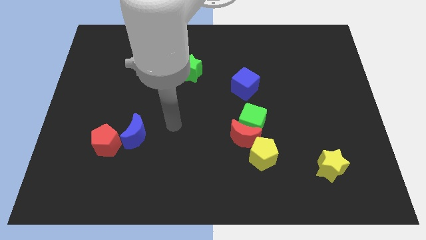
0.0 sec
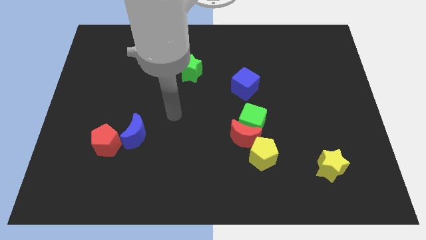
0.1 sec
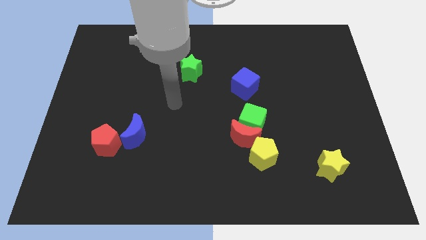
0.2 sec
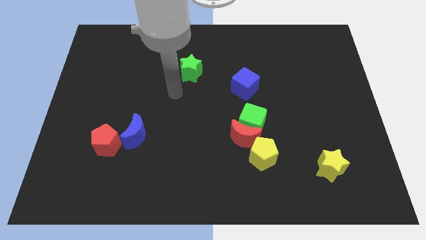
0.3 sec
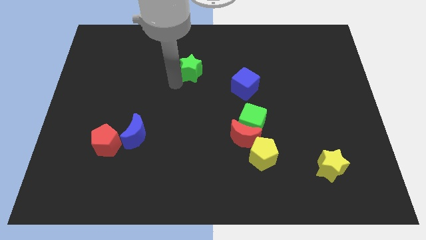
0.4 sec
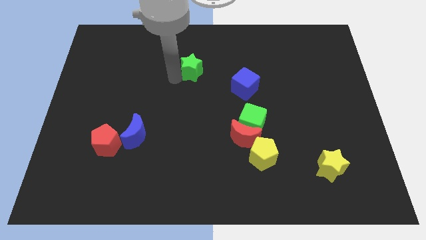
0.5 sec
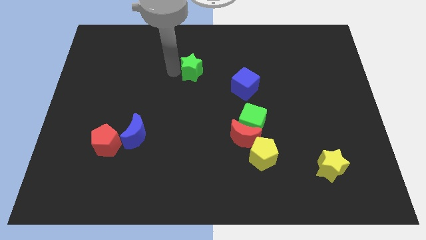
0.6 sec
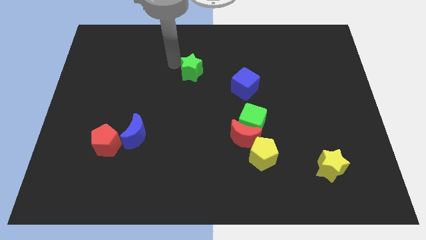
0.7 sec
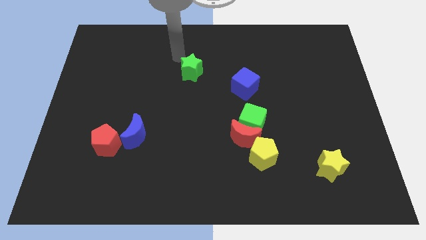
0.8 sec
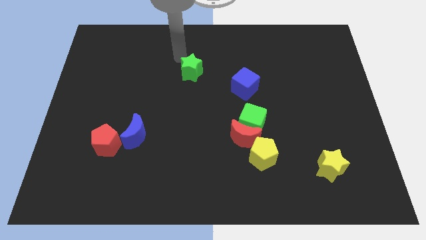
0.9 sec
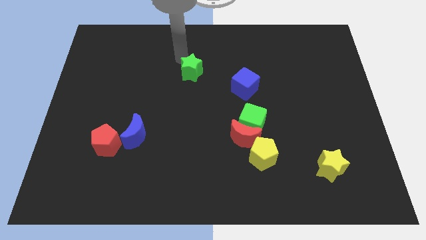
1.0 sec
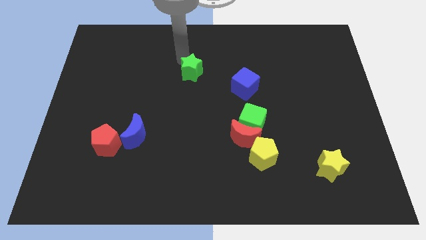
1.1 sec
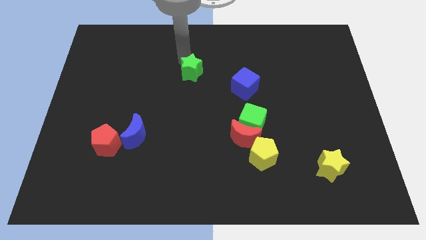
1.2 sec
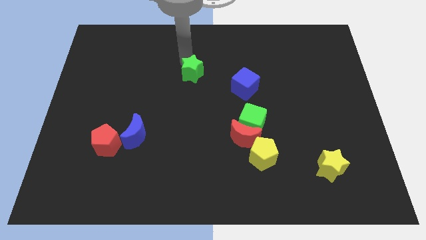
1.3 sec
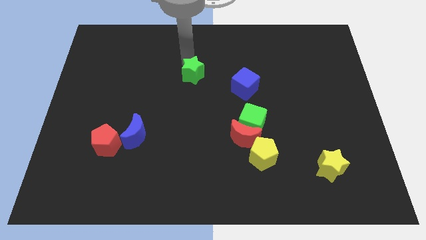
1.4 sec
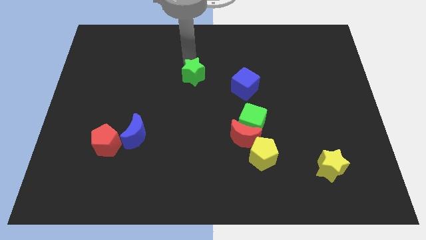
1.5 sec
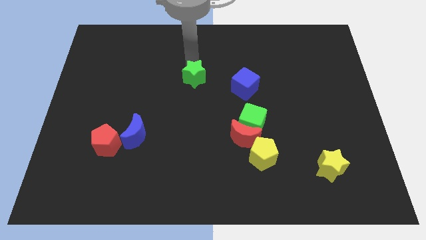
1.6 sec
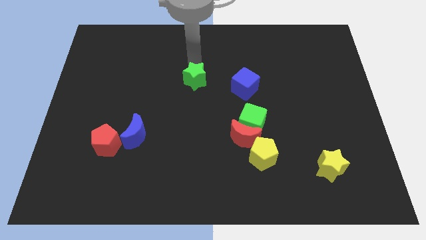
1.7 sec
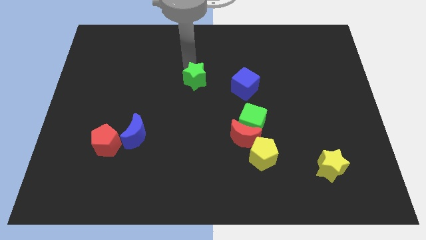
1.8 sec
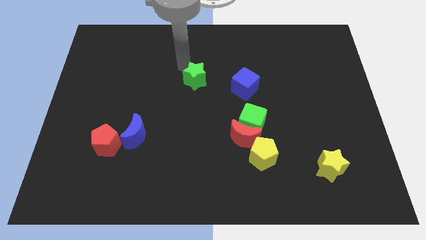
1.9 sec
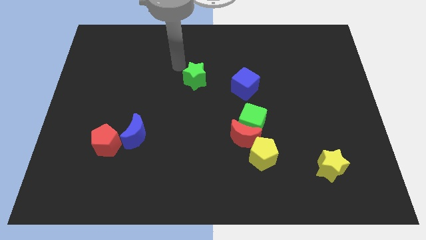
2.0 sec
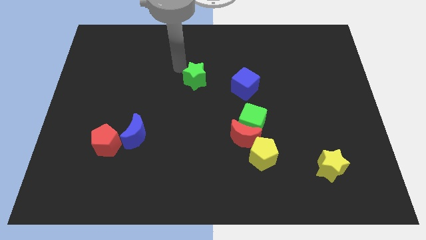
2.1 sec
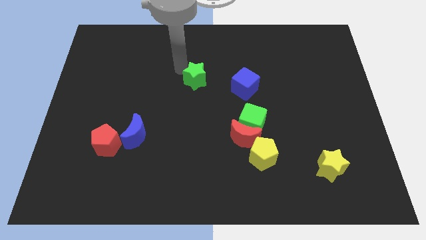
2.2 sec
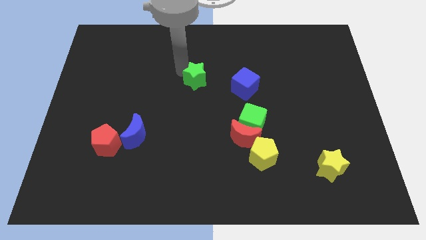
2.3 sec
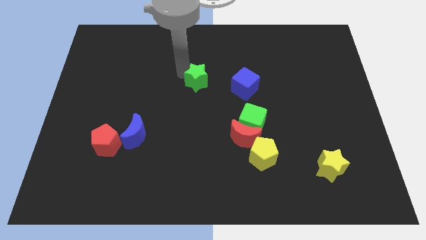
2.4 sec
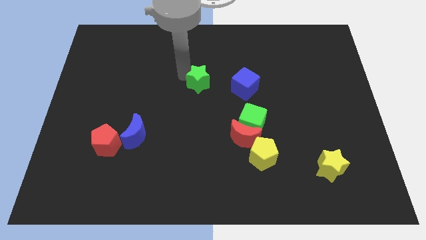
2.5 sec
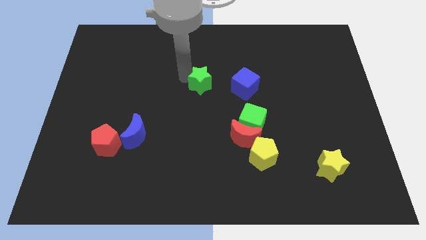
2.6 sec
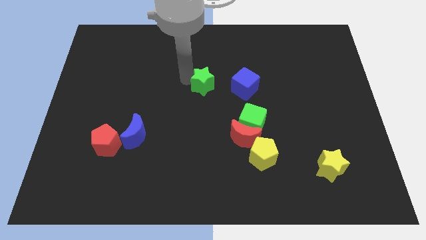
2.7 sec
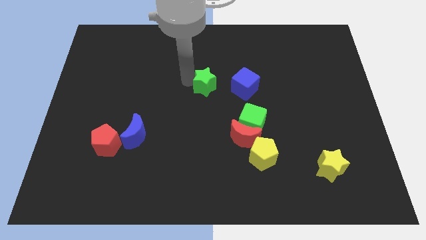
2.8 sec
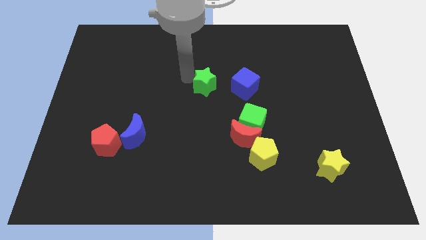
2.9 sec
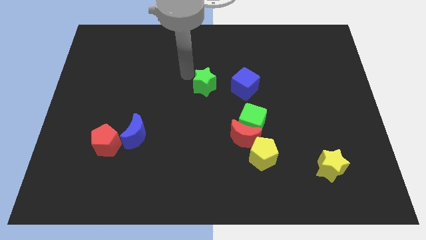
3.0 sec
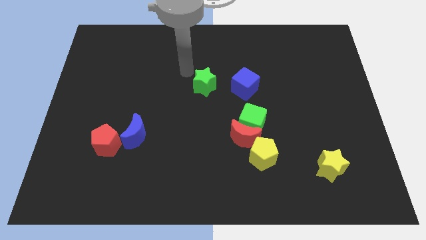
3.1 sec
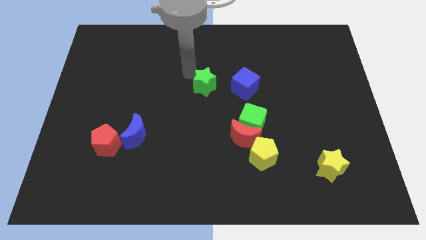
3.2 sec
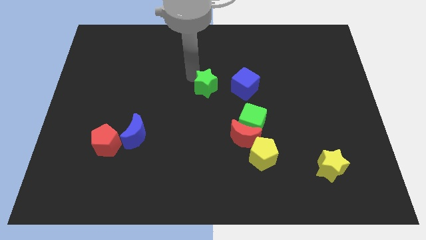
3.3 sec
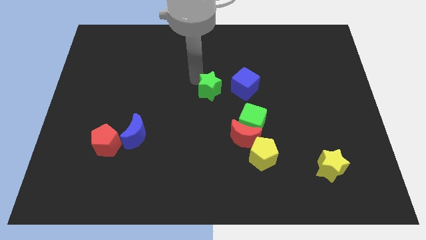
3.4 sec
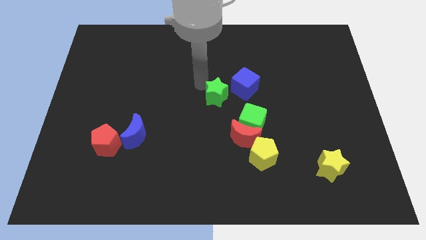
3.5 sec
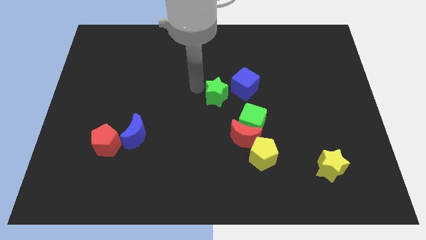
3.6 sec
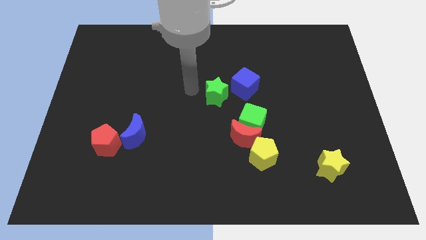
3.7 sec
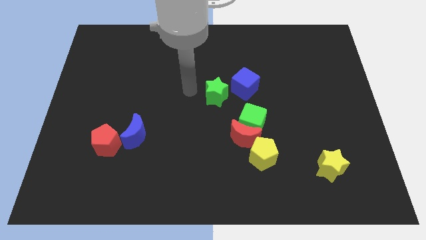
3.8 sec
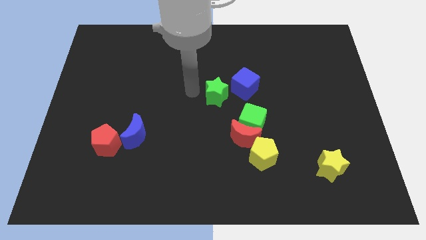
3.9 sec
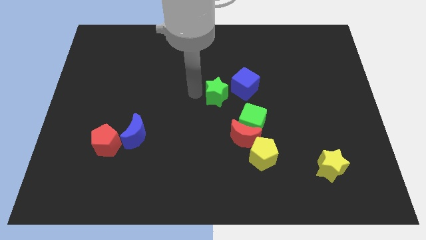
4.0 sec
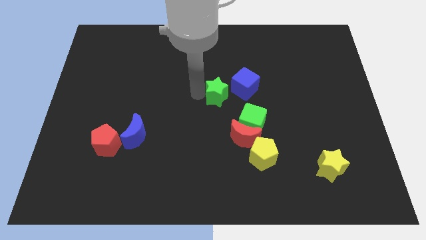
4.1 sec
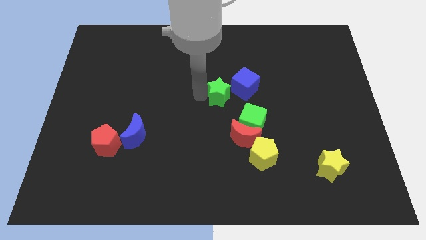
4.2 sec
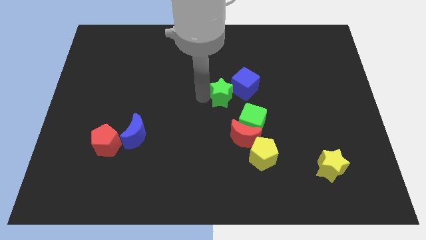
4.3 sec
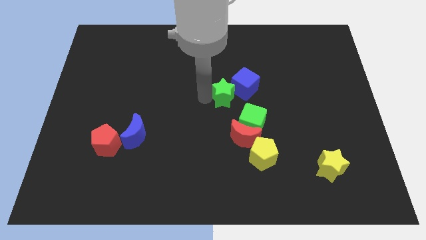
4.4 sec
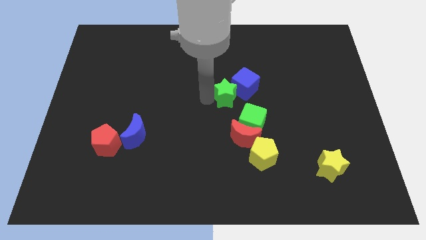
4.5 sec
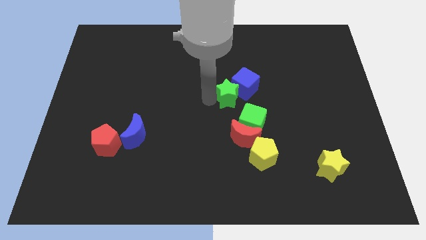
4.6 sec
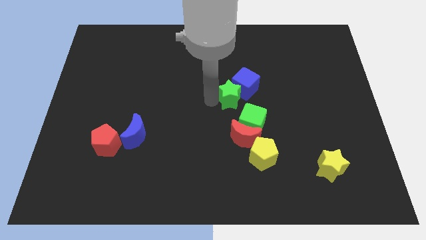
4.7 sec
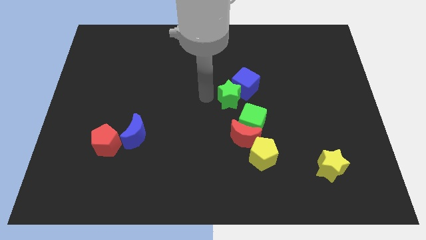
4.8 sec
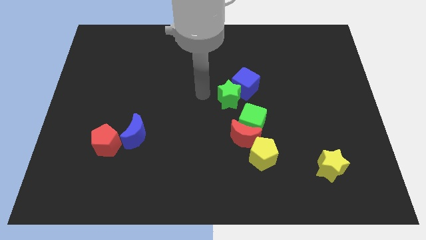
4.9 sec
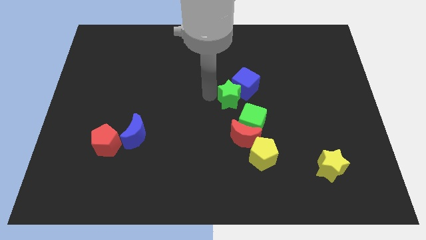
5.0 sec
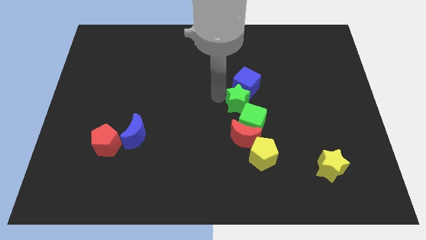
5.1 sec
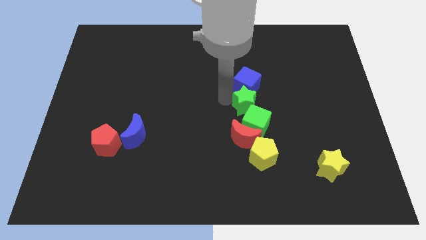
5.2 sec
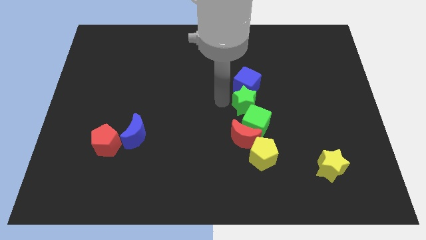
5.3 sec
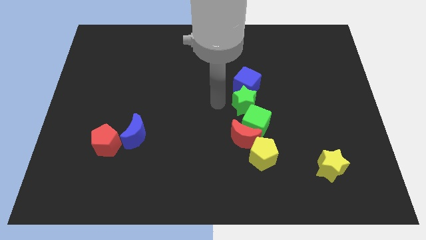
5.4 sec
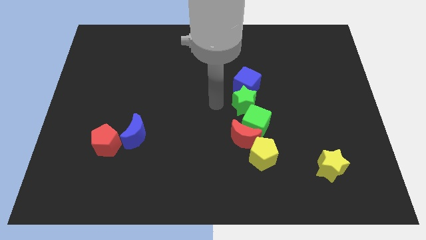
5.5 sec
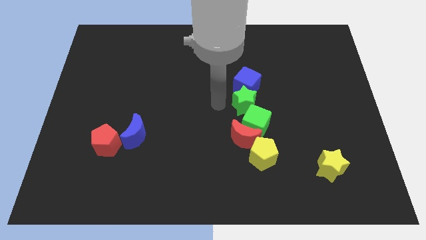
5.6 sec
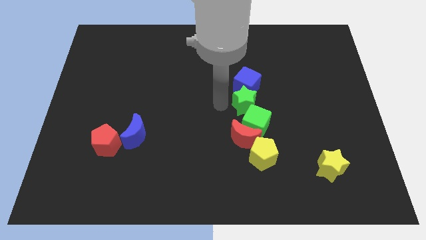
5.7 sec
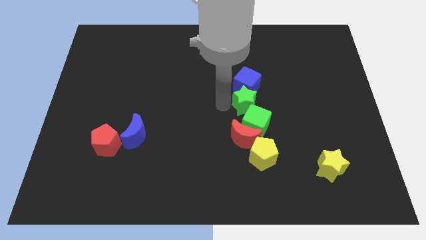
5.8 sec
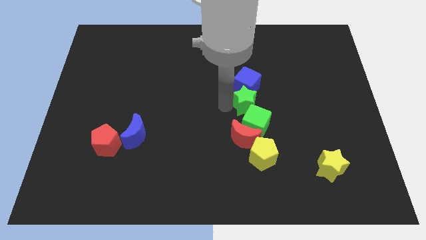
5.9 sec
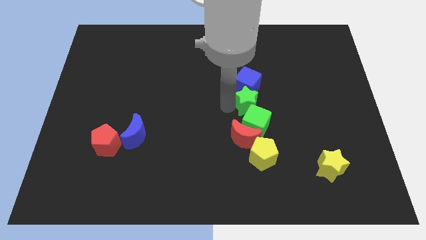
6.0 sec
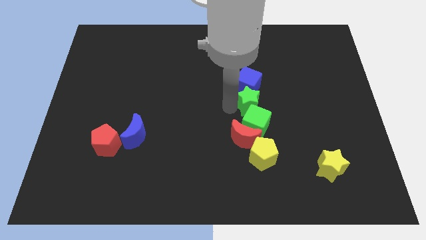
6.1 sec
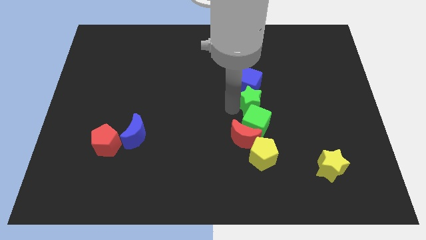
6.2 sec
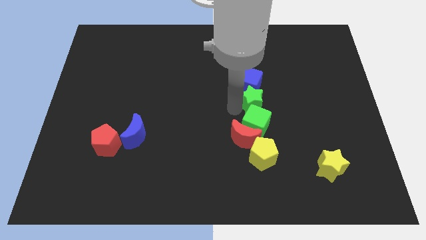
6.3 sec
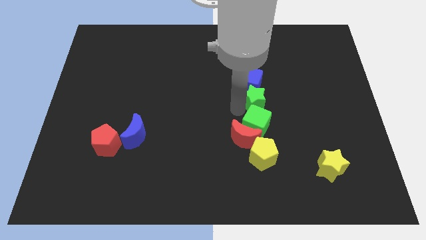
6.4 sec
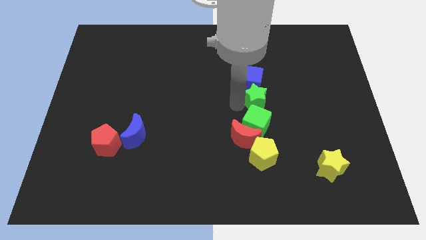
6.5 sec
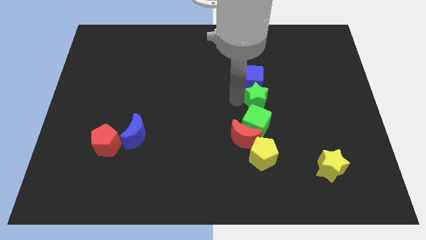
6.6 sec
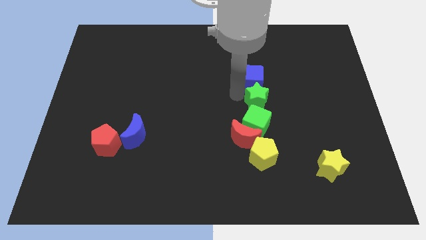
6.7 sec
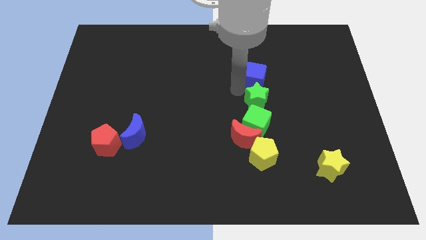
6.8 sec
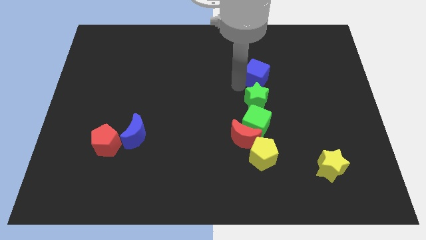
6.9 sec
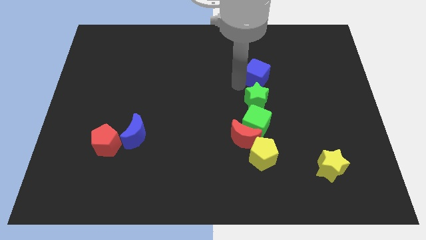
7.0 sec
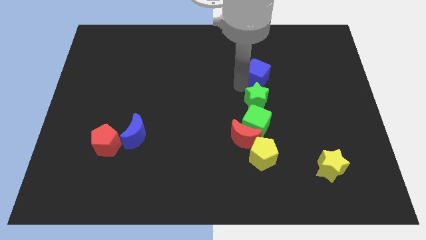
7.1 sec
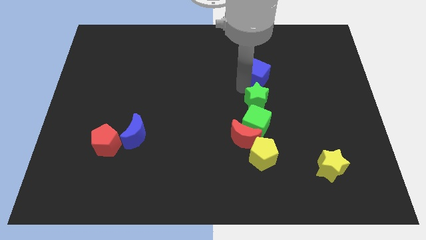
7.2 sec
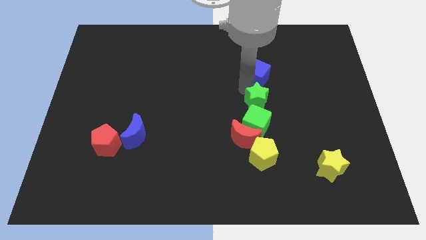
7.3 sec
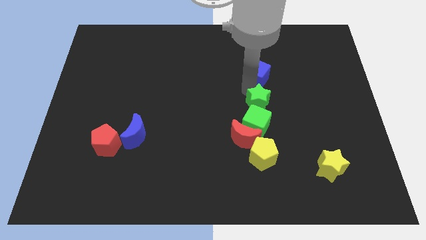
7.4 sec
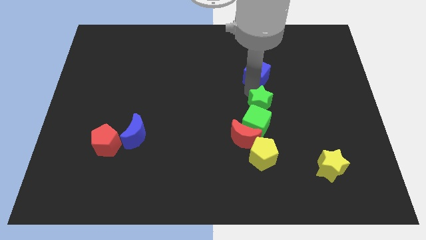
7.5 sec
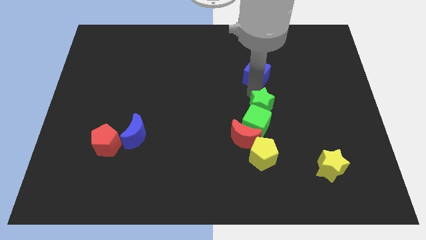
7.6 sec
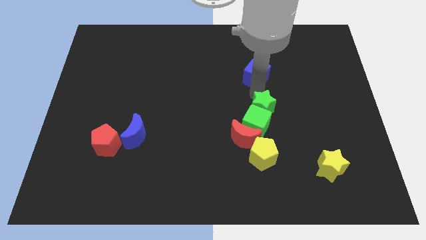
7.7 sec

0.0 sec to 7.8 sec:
move the green star diagonally down and to the right

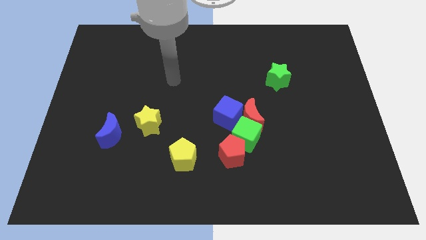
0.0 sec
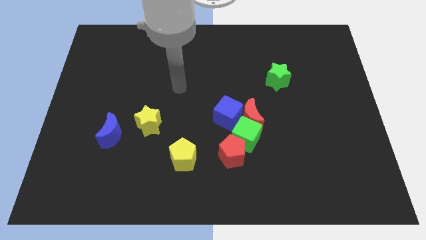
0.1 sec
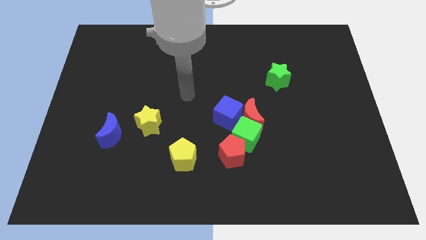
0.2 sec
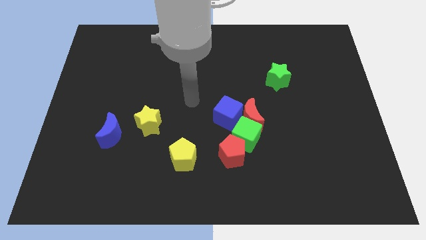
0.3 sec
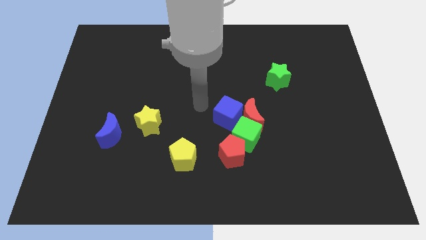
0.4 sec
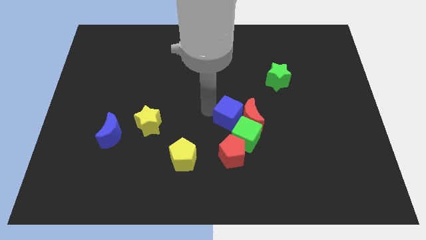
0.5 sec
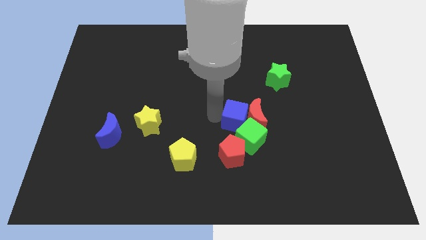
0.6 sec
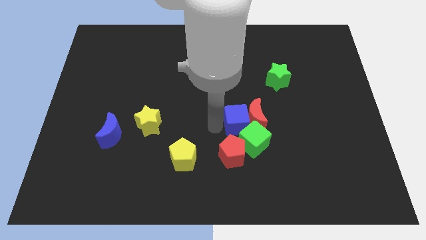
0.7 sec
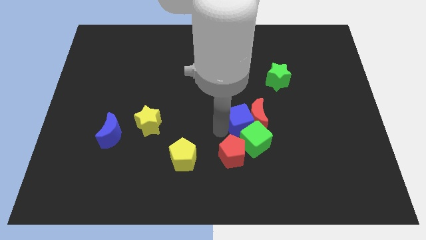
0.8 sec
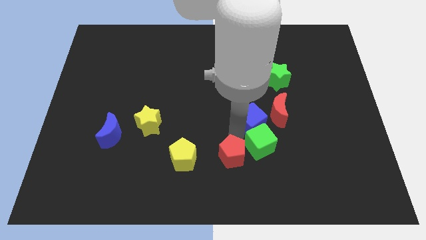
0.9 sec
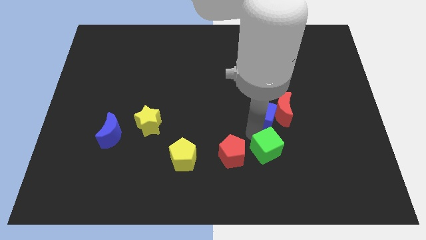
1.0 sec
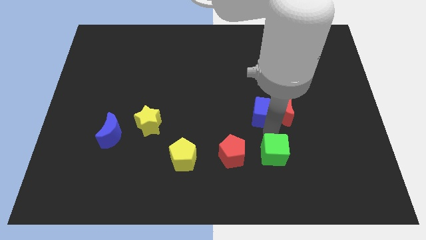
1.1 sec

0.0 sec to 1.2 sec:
slightly move the red moon diagonally upwards and right
